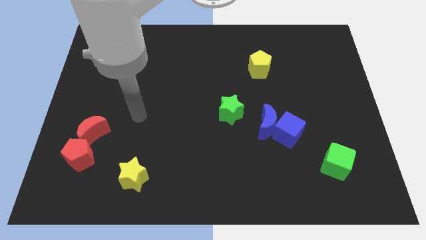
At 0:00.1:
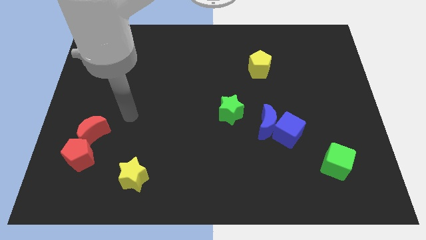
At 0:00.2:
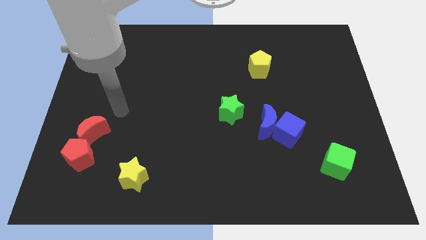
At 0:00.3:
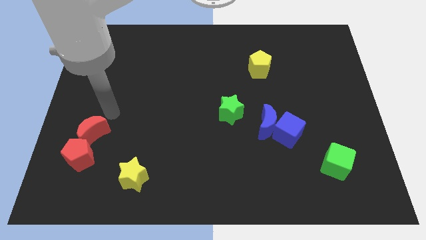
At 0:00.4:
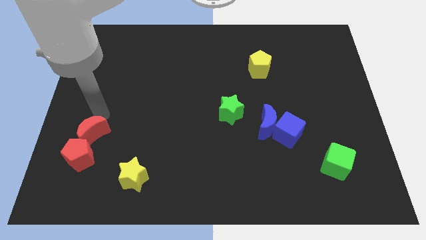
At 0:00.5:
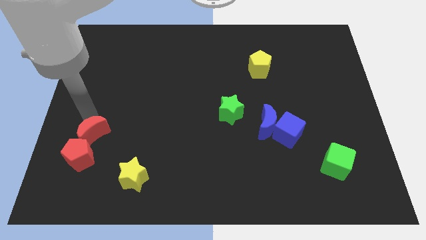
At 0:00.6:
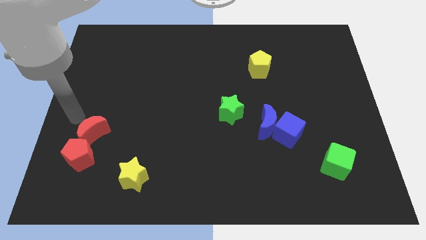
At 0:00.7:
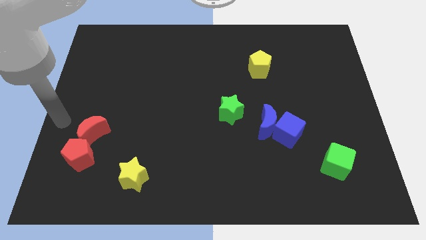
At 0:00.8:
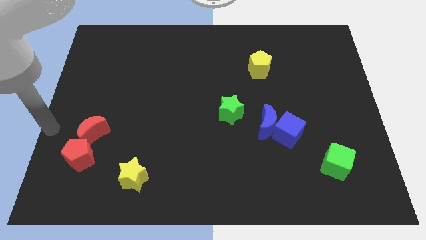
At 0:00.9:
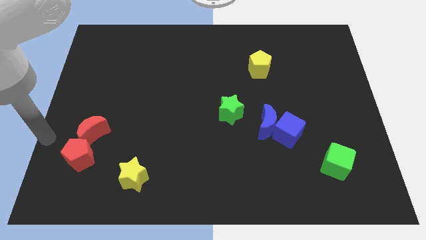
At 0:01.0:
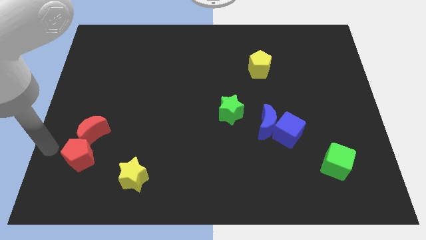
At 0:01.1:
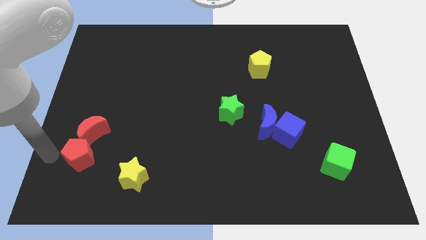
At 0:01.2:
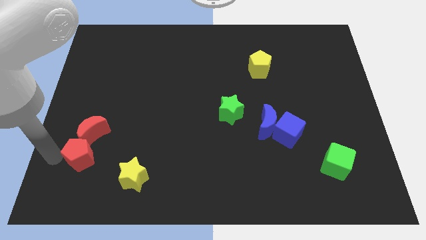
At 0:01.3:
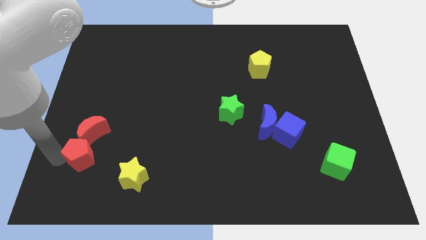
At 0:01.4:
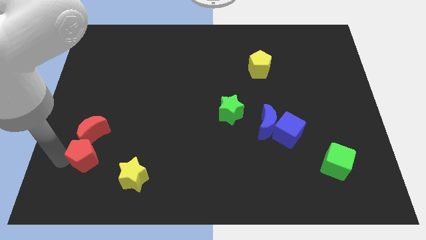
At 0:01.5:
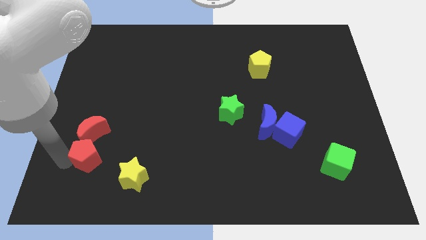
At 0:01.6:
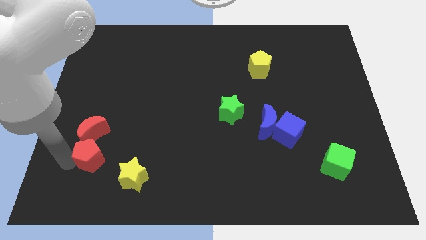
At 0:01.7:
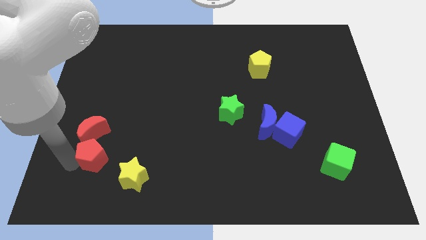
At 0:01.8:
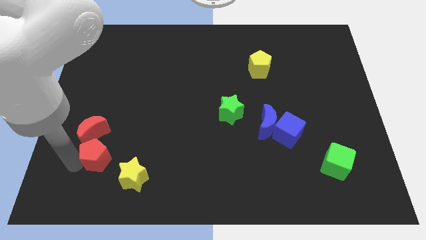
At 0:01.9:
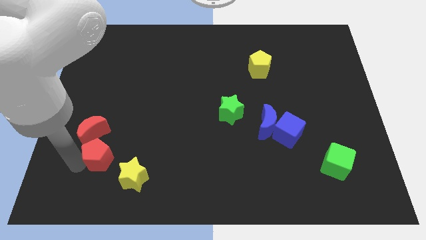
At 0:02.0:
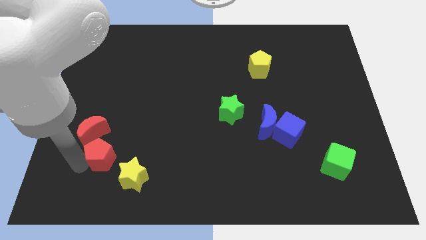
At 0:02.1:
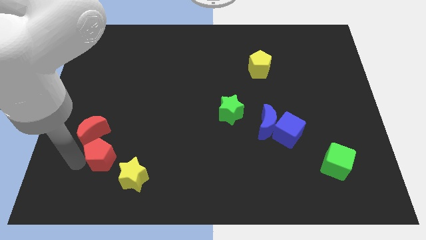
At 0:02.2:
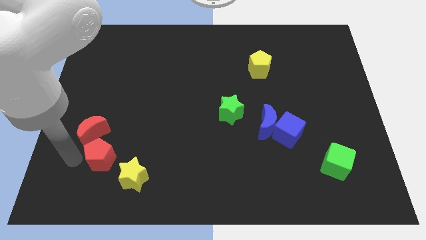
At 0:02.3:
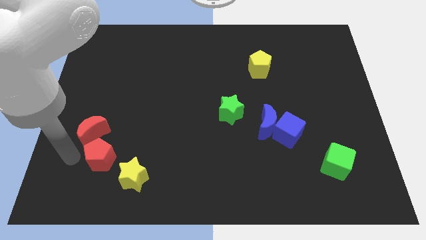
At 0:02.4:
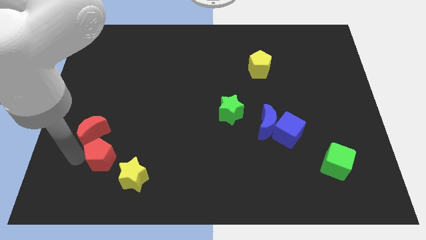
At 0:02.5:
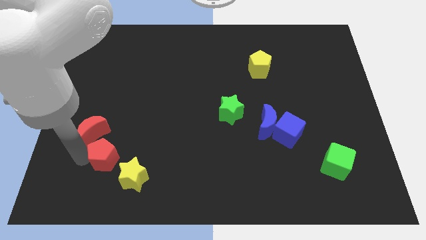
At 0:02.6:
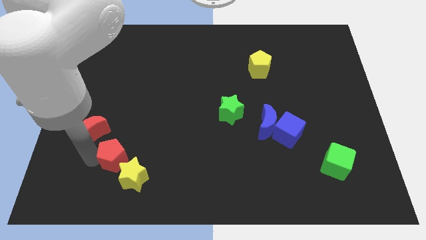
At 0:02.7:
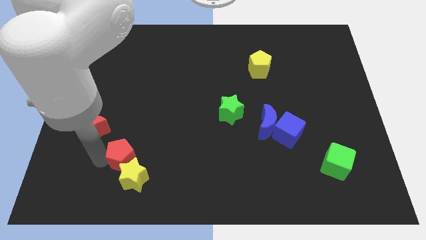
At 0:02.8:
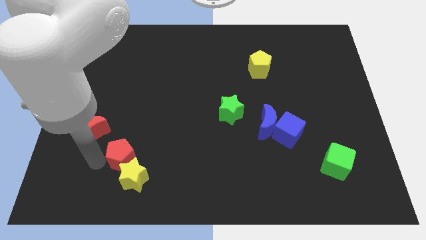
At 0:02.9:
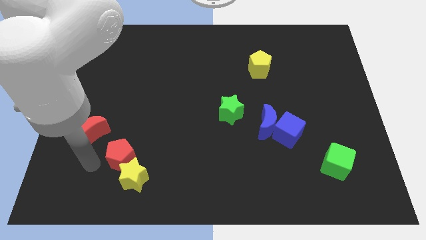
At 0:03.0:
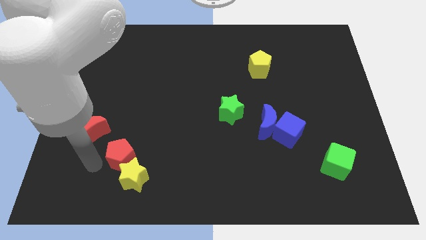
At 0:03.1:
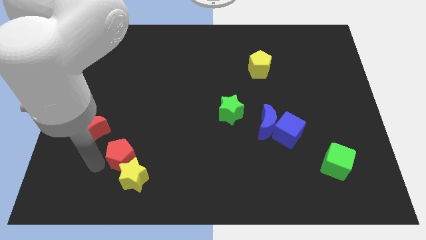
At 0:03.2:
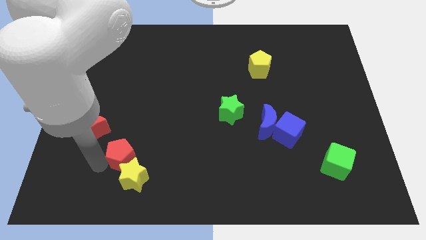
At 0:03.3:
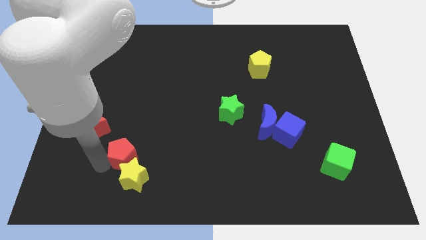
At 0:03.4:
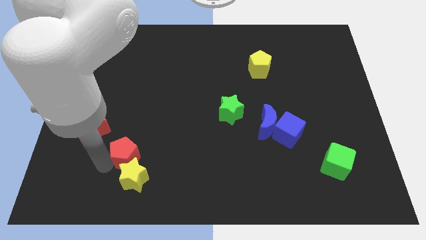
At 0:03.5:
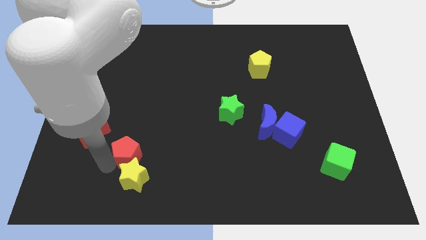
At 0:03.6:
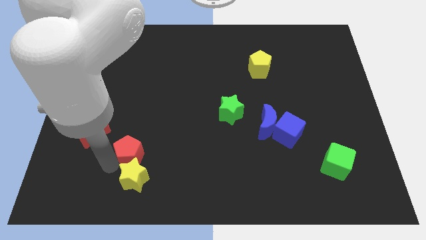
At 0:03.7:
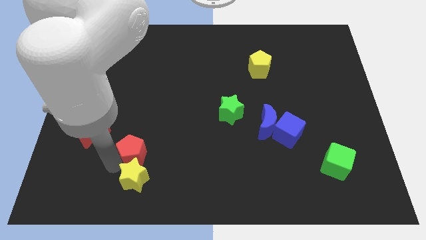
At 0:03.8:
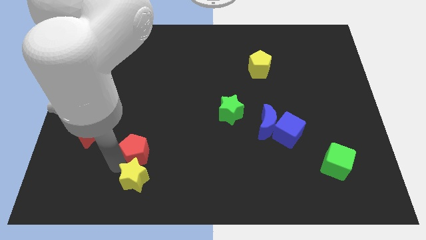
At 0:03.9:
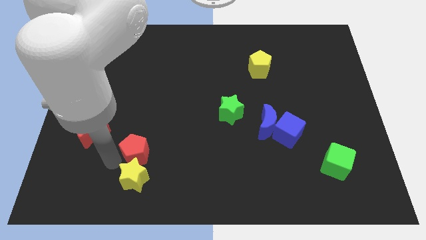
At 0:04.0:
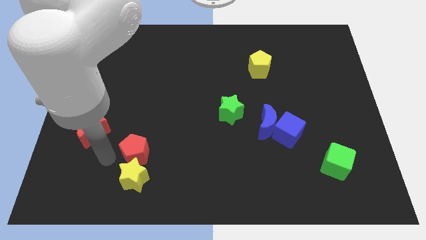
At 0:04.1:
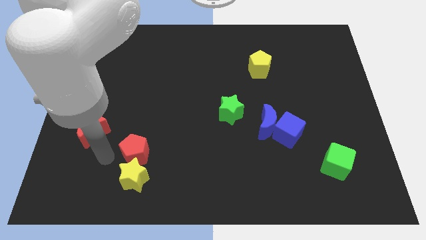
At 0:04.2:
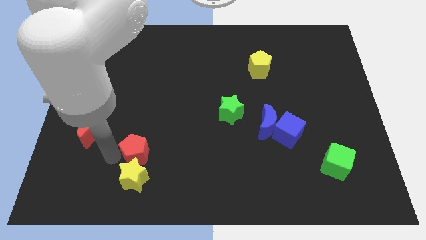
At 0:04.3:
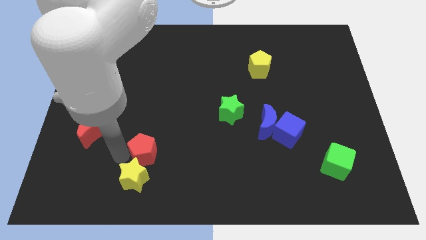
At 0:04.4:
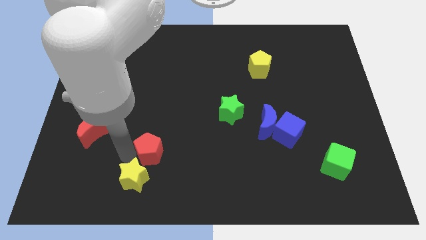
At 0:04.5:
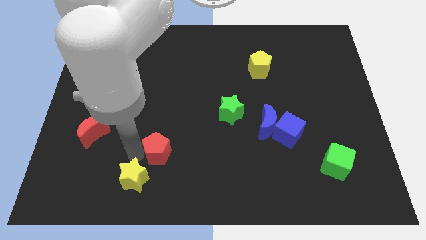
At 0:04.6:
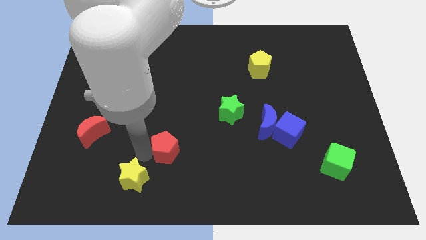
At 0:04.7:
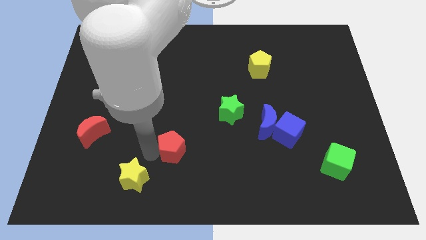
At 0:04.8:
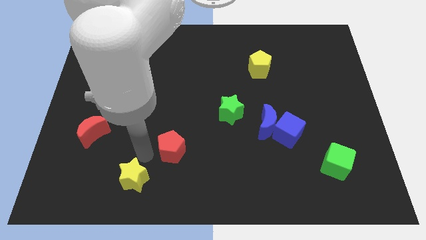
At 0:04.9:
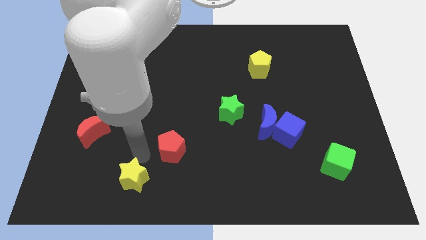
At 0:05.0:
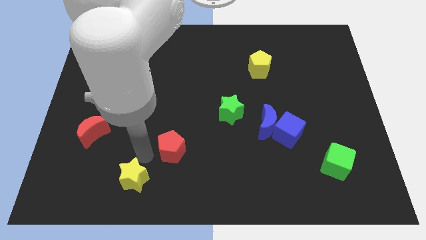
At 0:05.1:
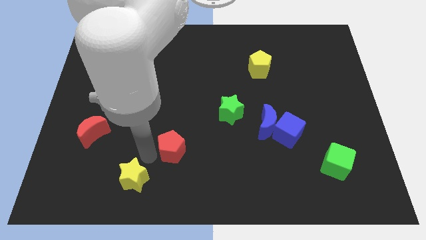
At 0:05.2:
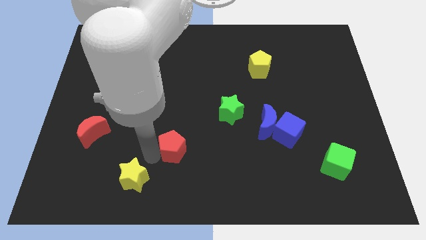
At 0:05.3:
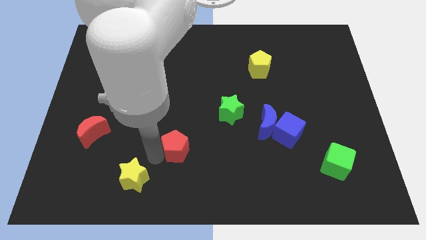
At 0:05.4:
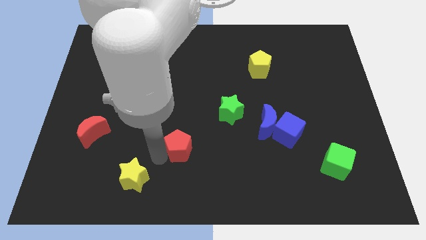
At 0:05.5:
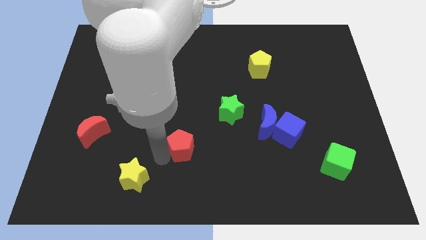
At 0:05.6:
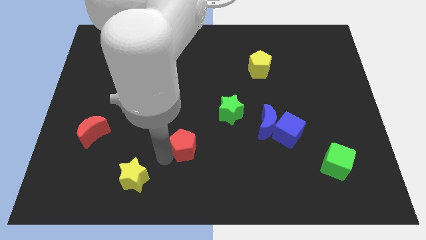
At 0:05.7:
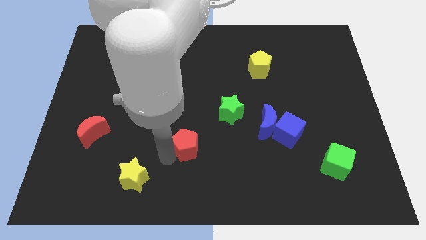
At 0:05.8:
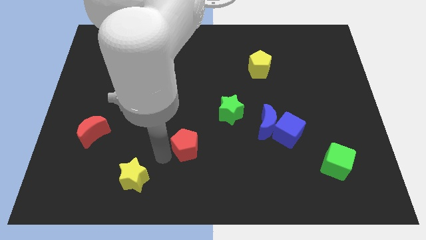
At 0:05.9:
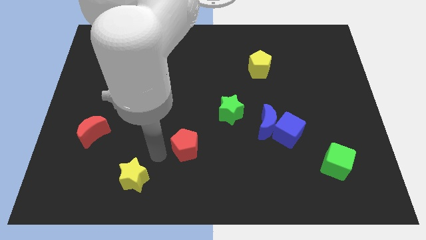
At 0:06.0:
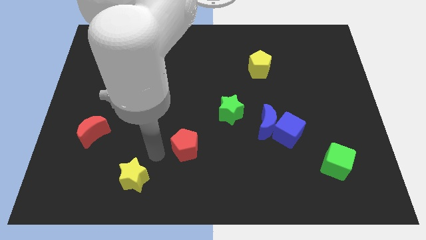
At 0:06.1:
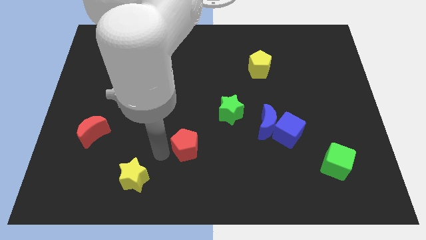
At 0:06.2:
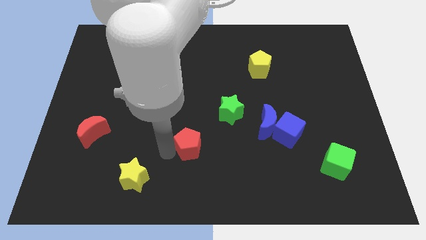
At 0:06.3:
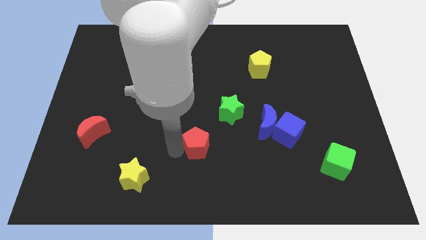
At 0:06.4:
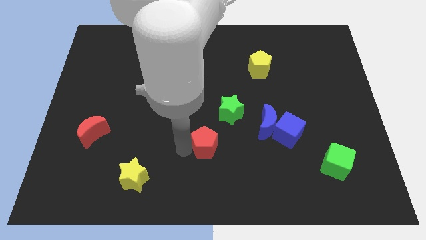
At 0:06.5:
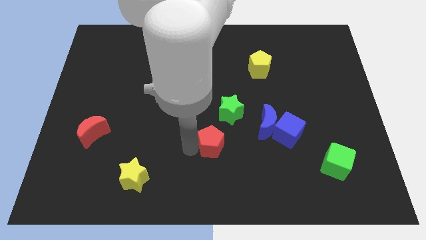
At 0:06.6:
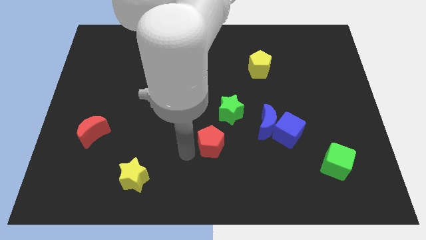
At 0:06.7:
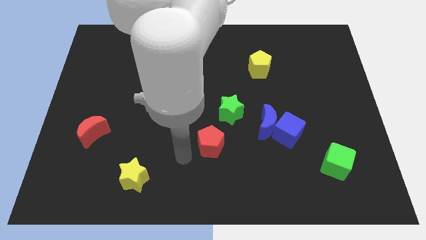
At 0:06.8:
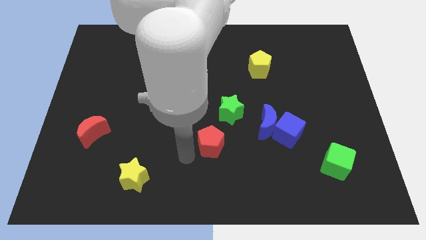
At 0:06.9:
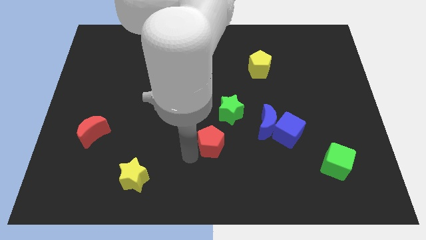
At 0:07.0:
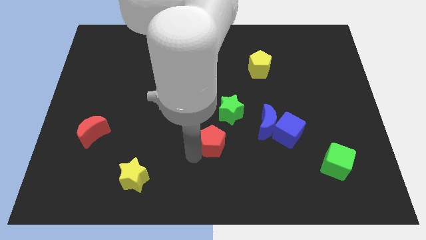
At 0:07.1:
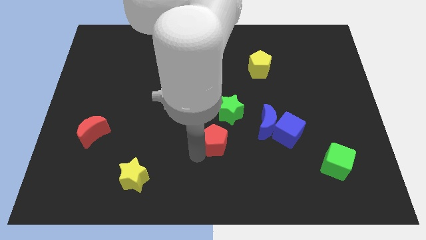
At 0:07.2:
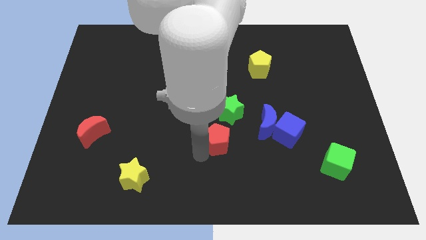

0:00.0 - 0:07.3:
move the red pentagon to the left of the blue cube
